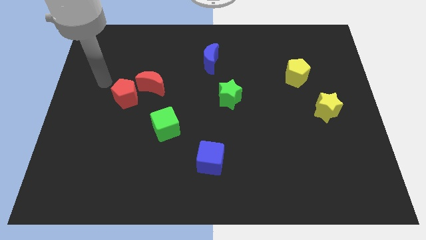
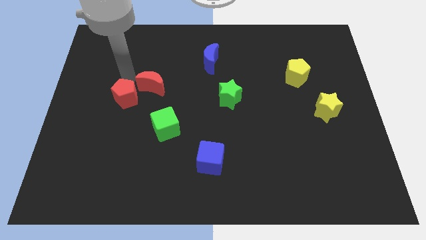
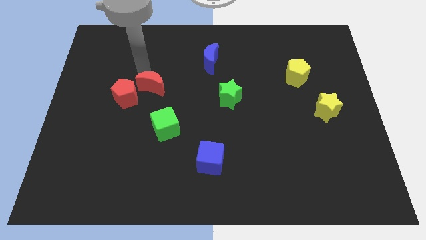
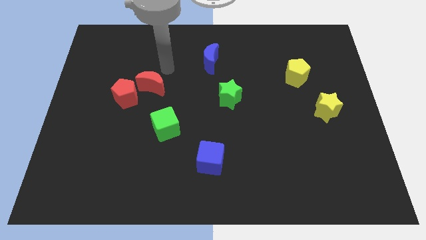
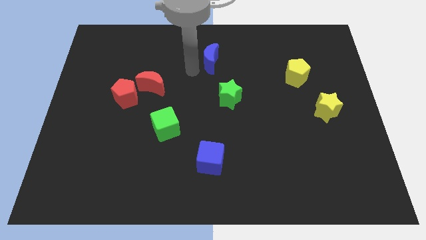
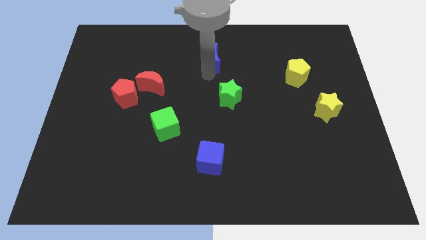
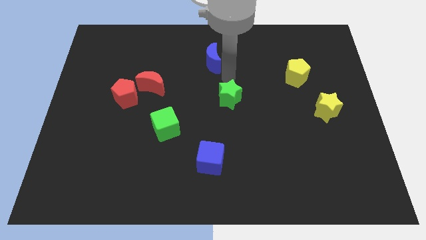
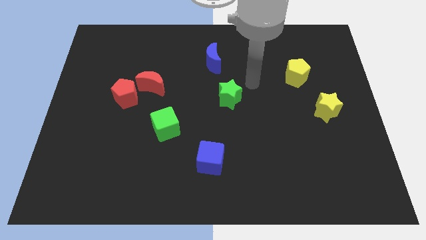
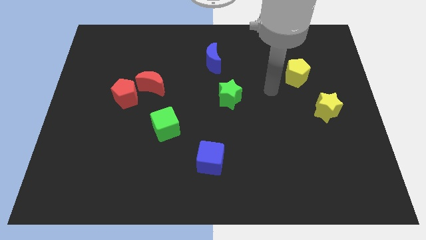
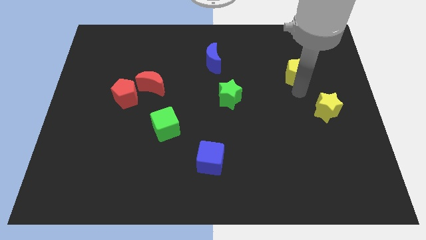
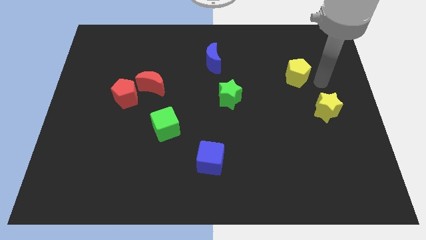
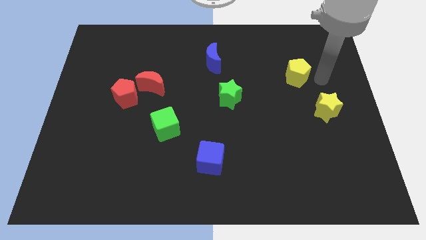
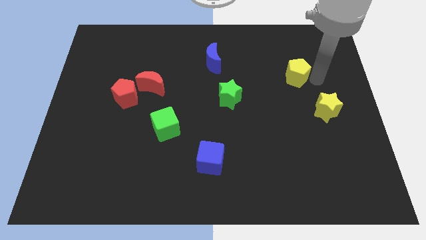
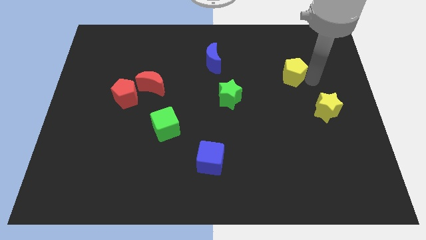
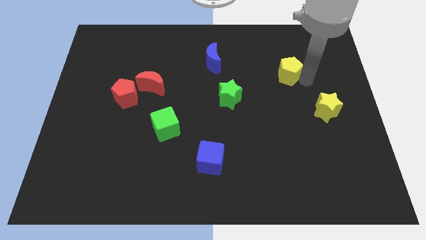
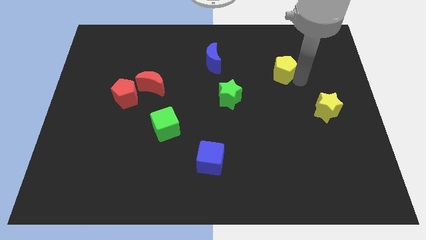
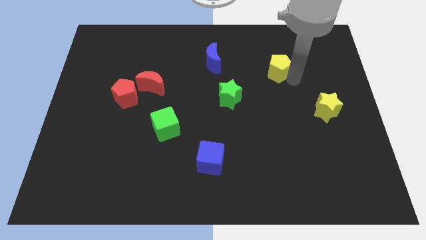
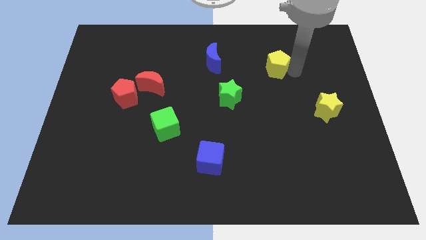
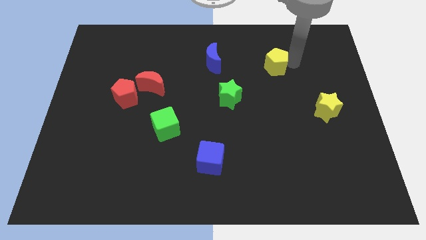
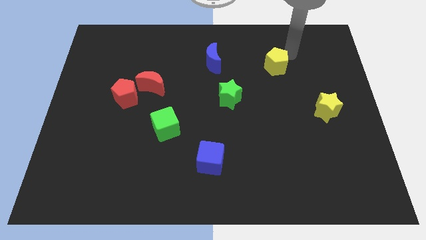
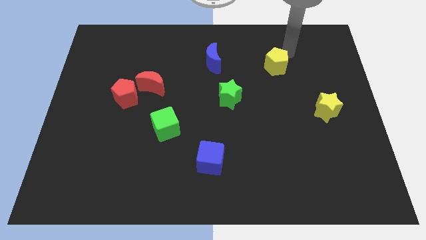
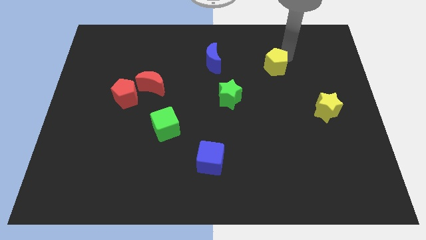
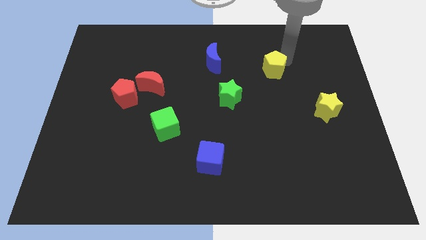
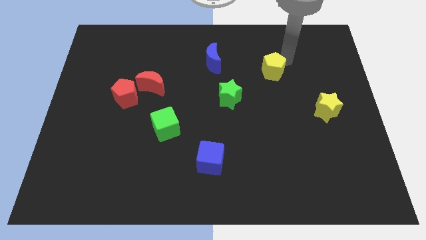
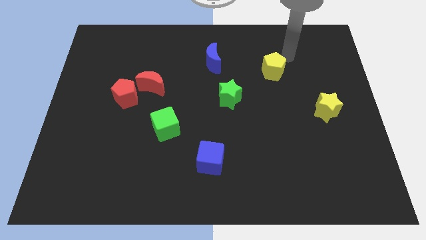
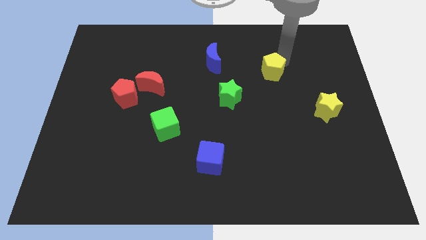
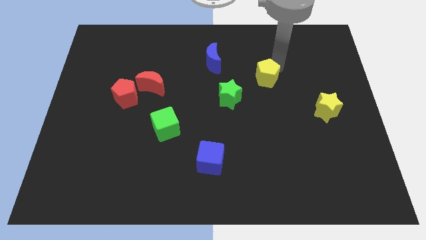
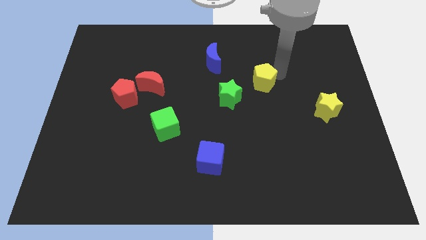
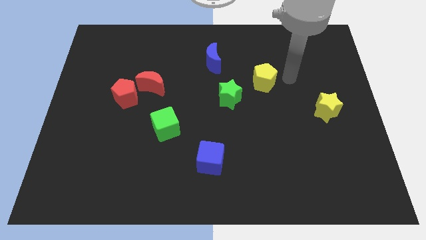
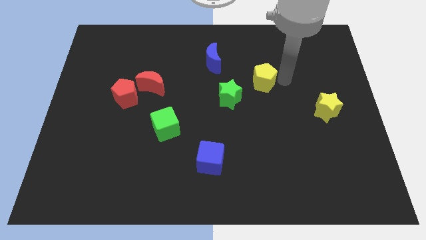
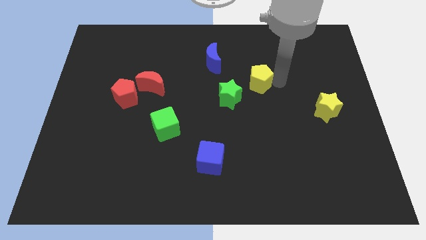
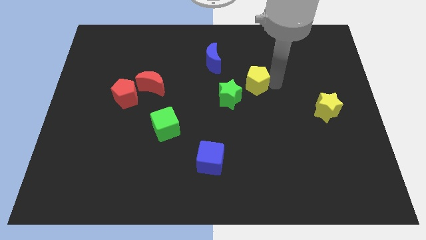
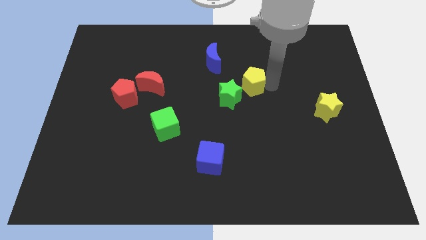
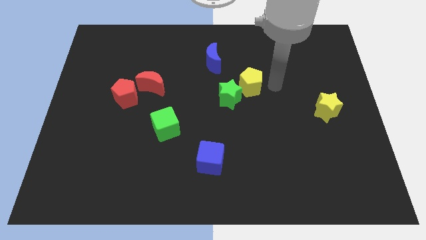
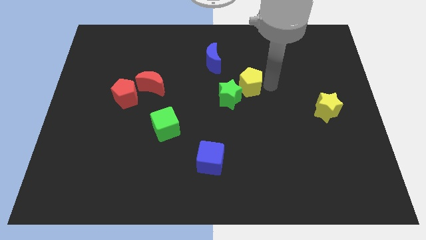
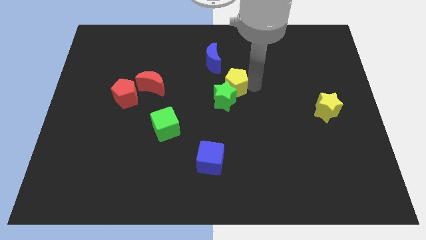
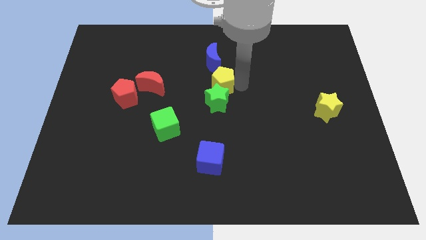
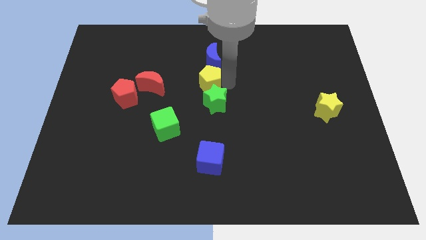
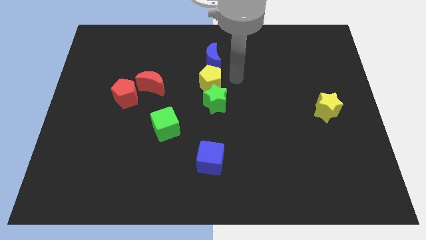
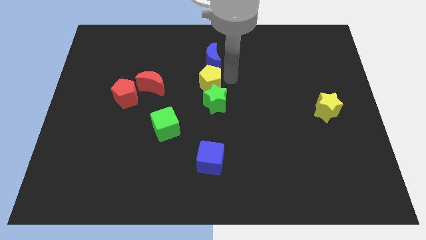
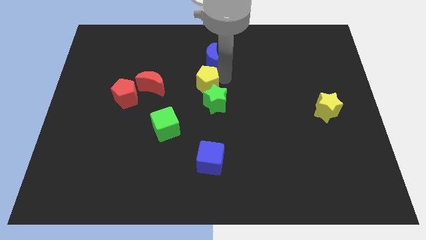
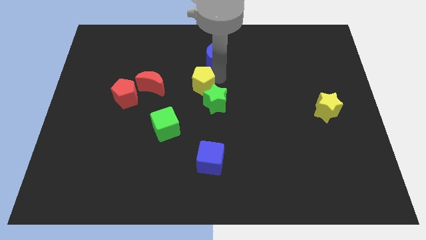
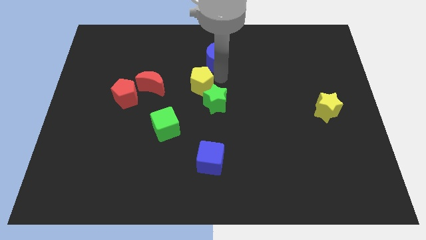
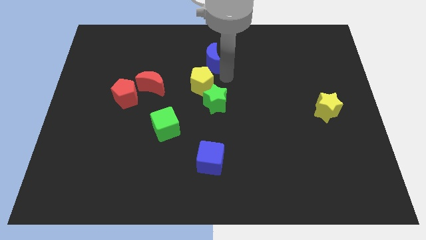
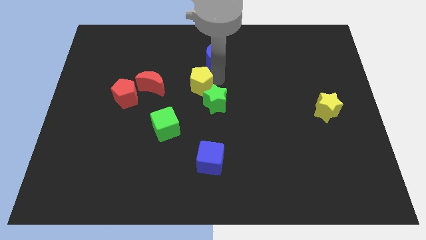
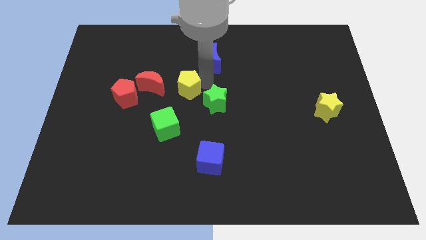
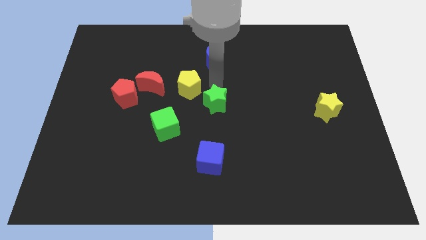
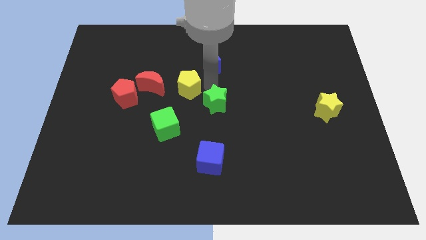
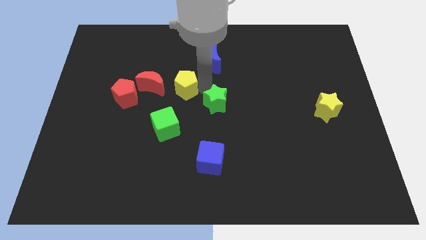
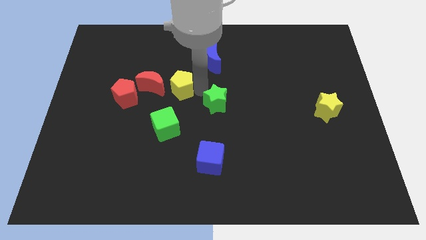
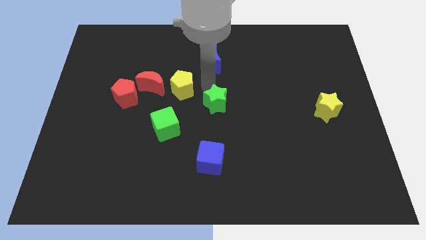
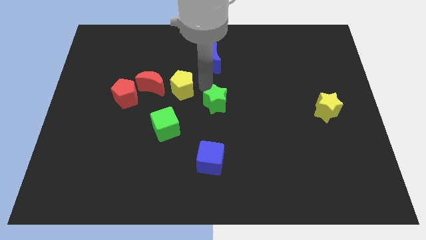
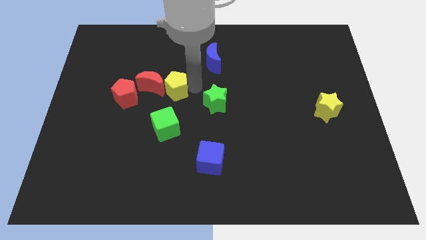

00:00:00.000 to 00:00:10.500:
move the yellow pentagon next to the red moon

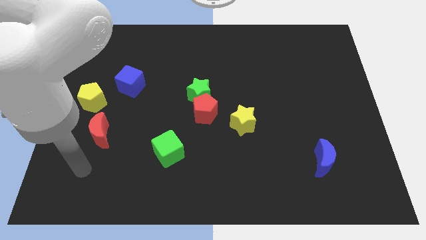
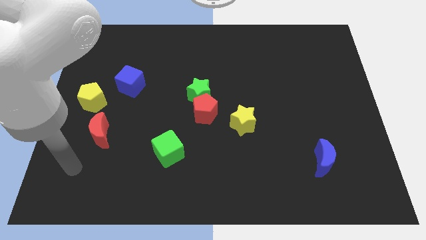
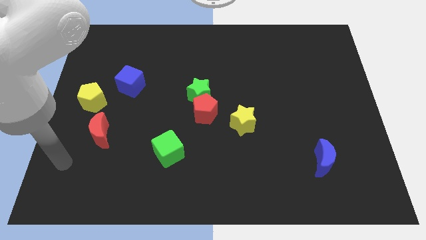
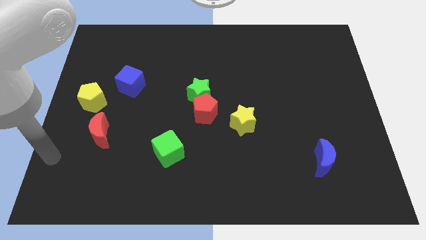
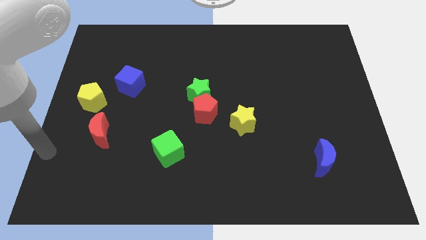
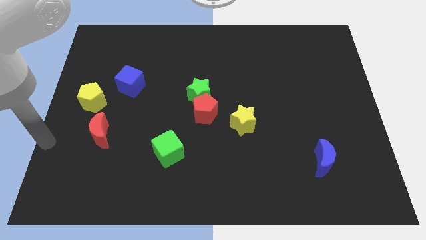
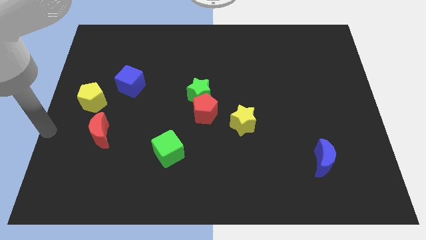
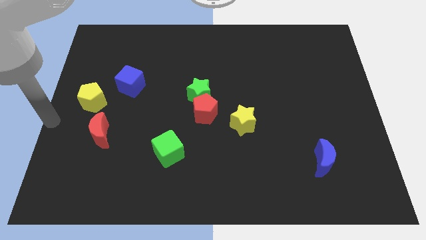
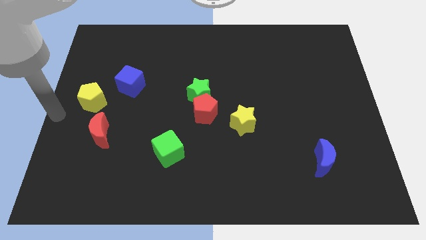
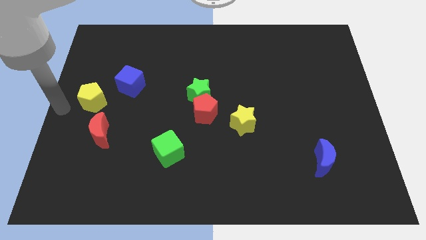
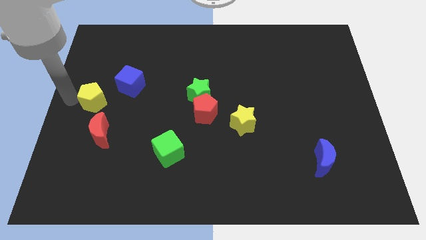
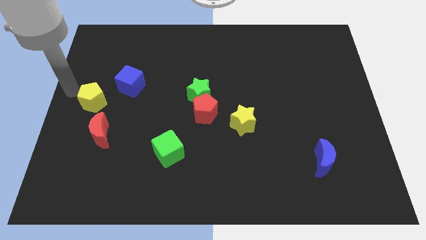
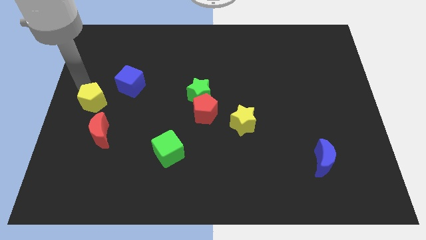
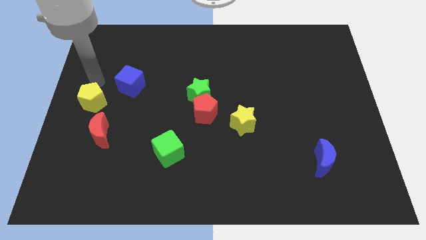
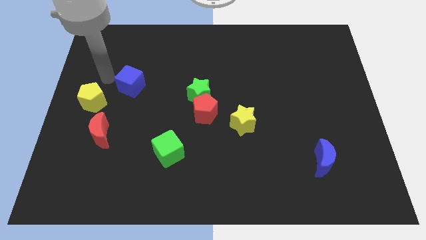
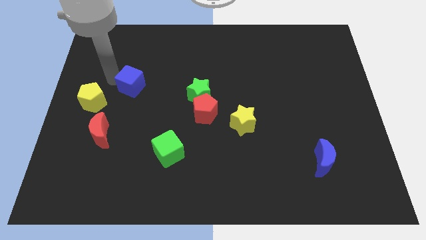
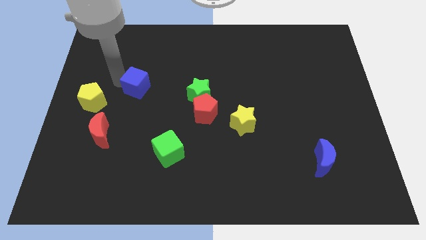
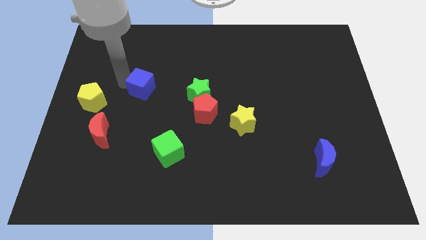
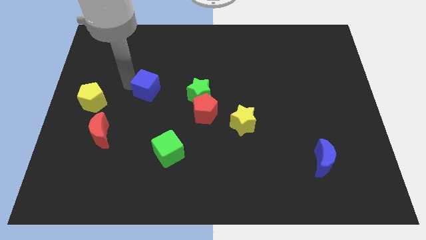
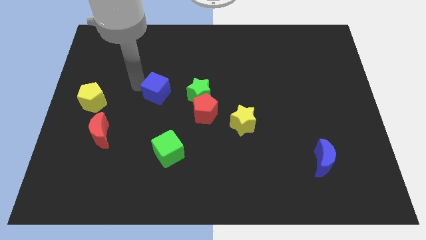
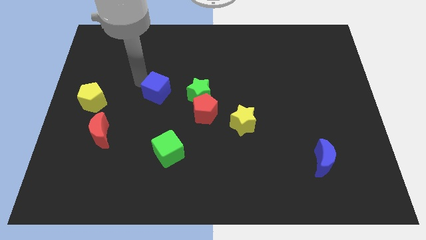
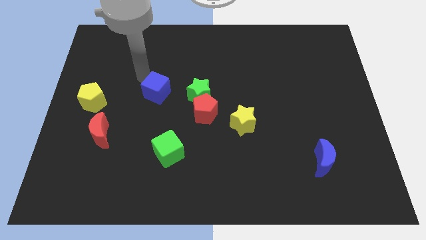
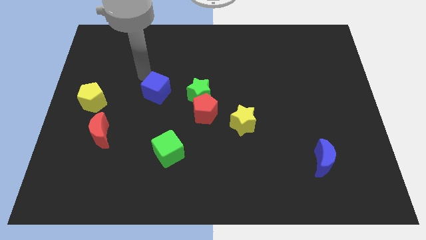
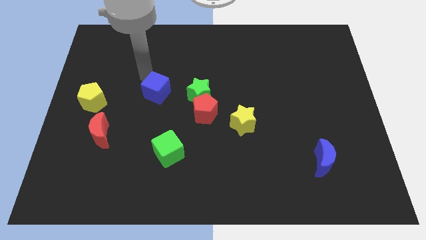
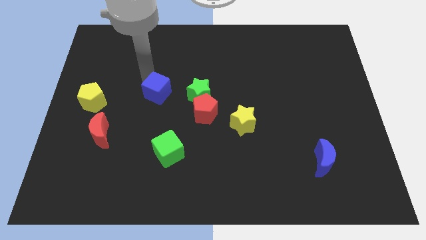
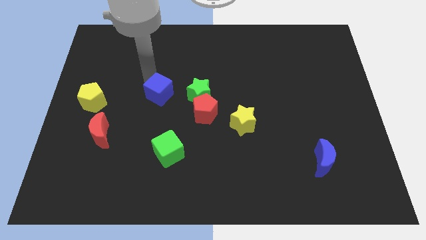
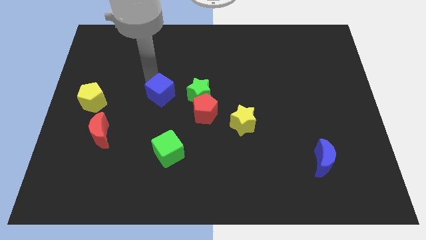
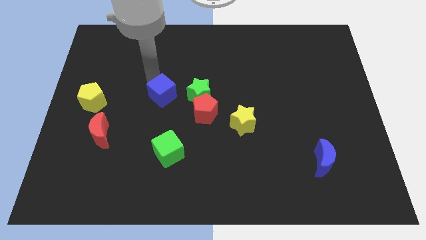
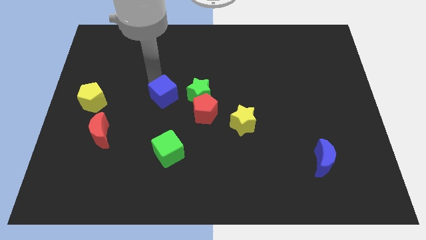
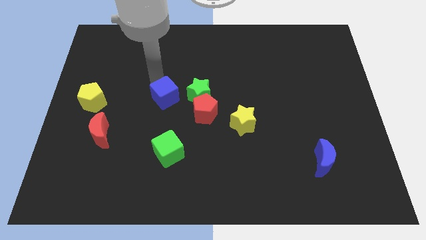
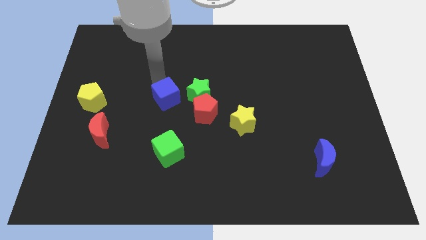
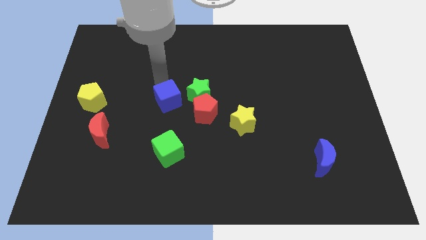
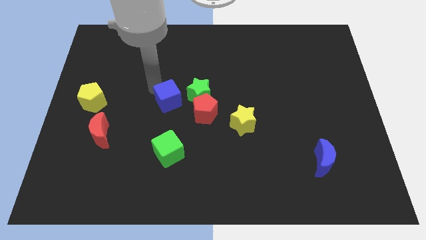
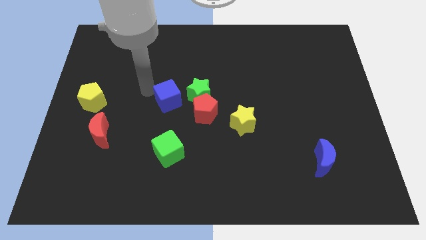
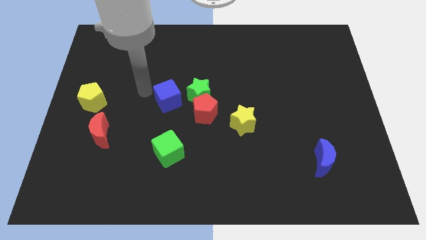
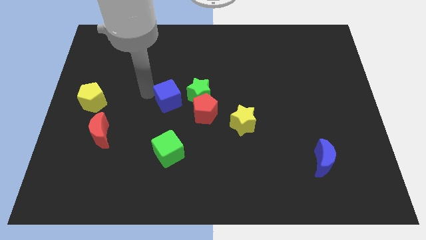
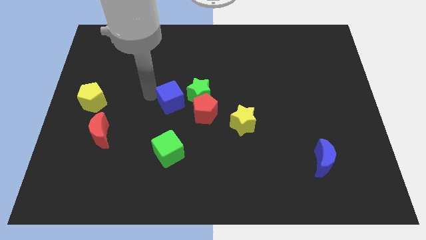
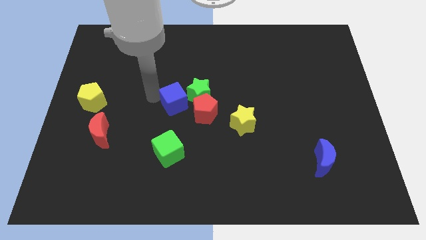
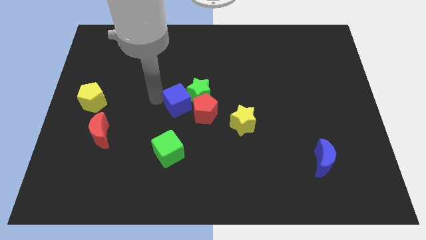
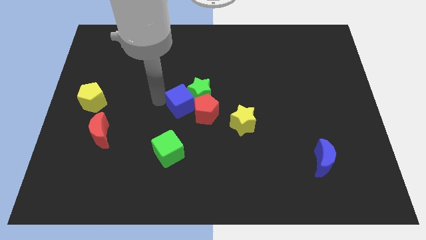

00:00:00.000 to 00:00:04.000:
push the blue cube next to the red pentagon
